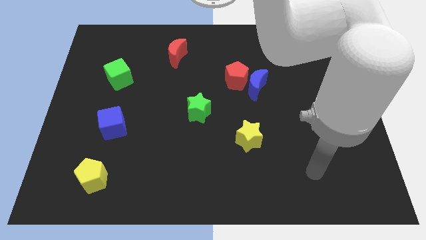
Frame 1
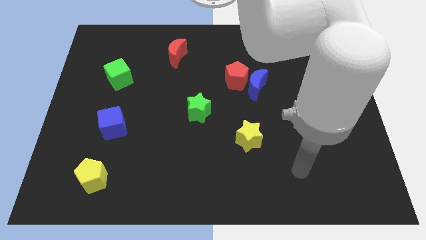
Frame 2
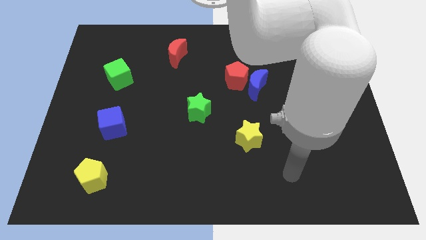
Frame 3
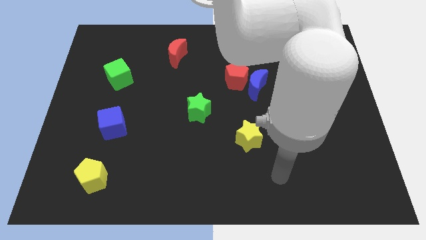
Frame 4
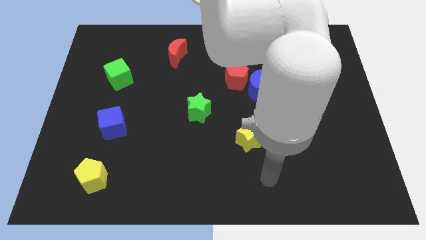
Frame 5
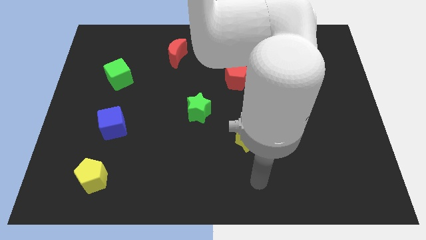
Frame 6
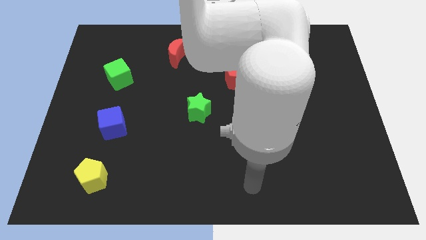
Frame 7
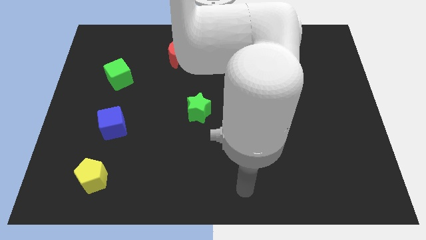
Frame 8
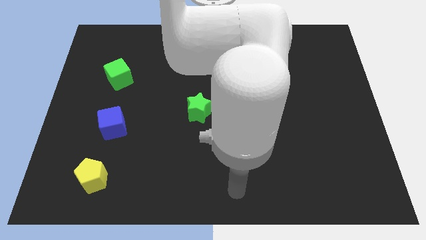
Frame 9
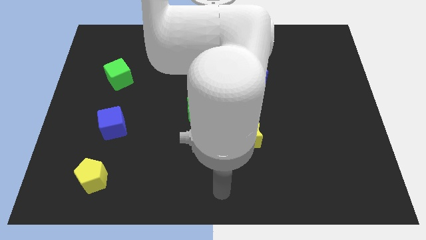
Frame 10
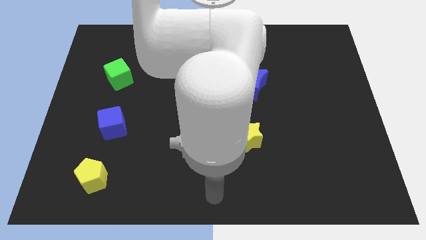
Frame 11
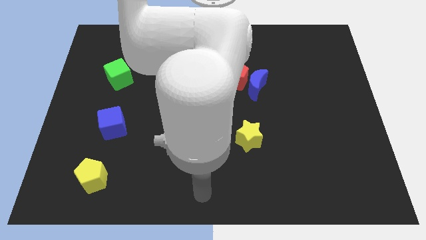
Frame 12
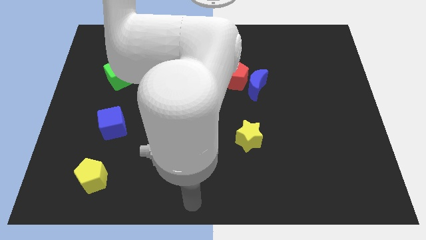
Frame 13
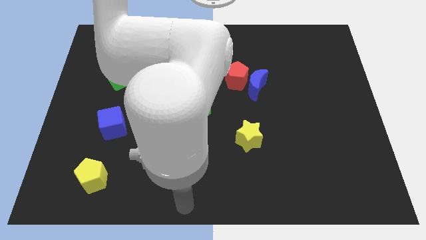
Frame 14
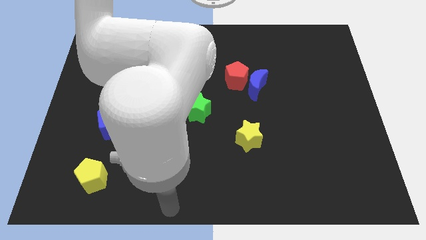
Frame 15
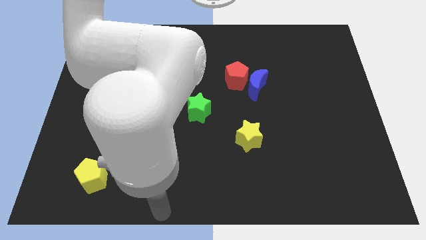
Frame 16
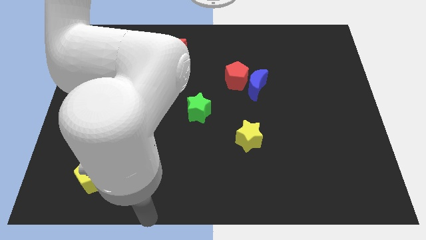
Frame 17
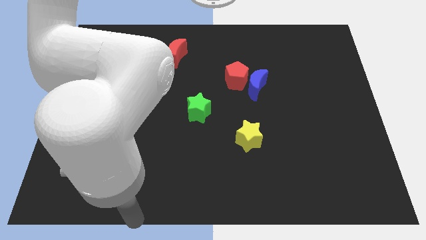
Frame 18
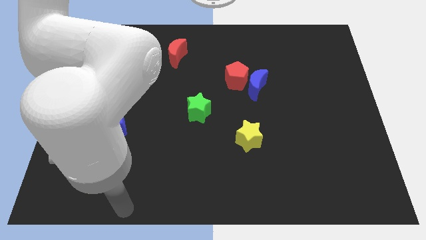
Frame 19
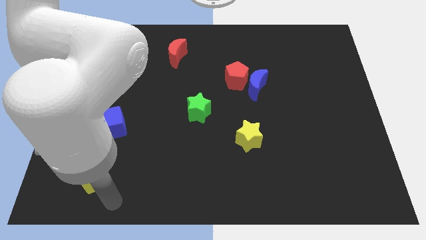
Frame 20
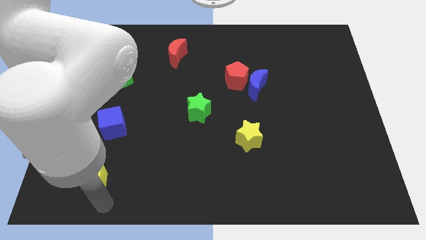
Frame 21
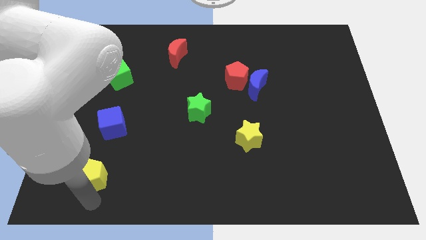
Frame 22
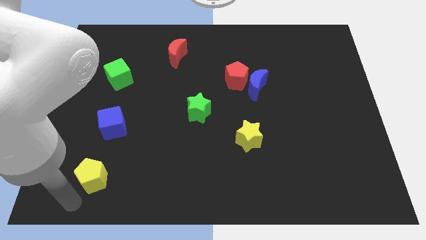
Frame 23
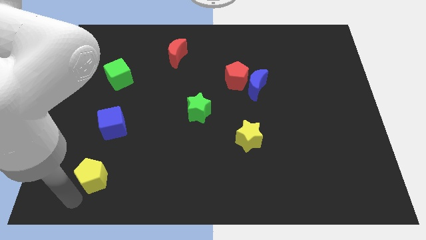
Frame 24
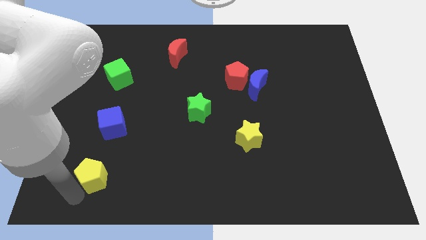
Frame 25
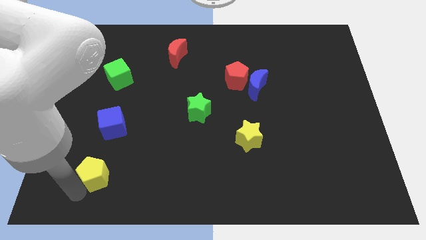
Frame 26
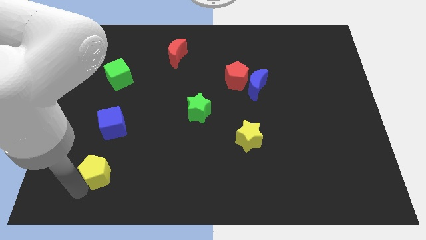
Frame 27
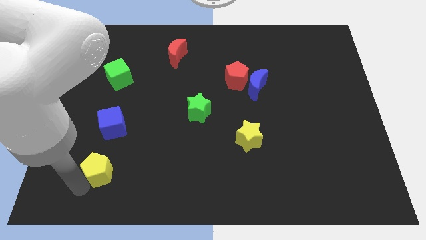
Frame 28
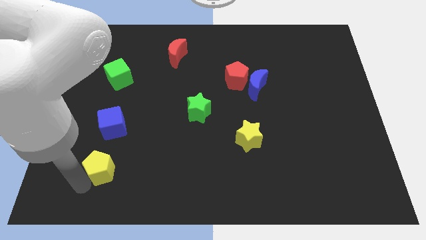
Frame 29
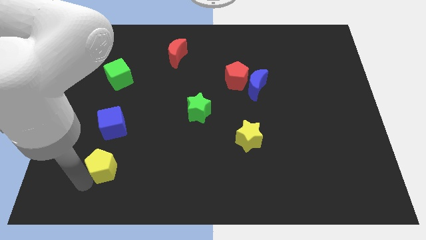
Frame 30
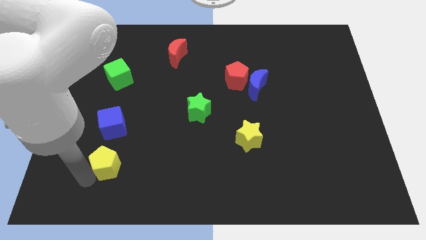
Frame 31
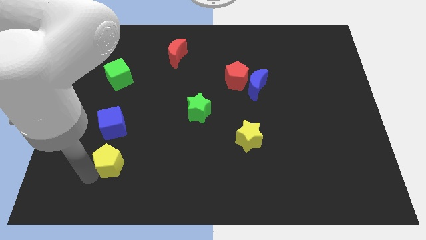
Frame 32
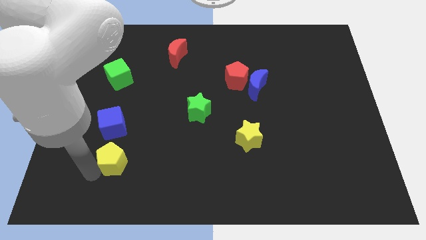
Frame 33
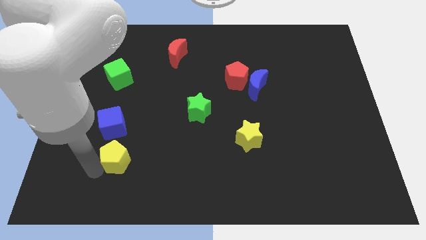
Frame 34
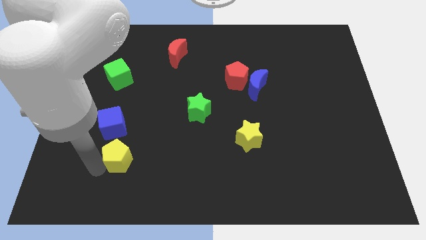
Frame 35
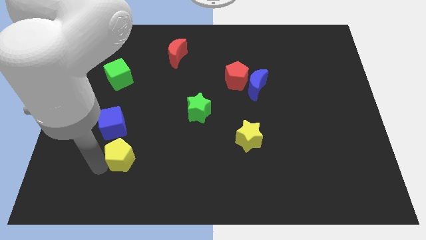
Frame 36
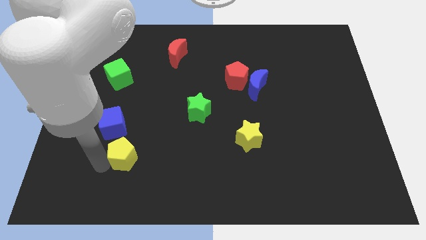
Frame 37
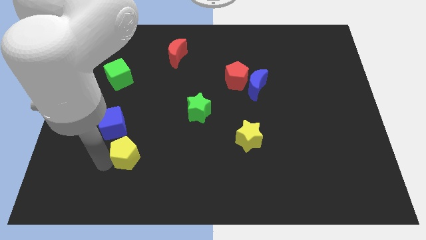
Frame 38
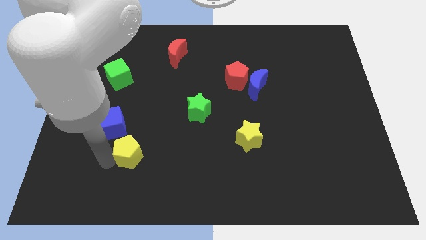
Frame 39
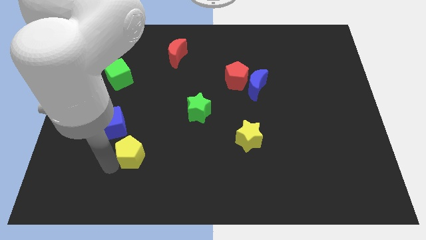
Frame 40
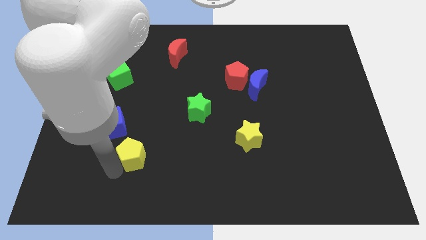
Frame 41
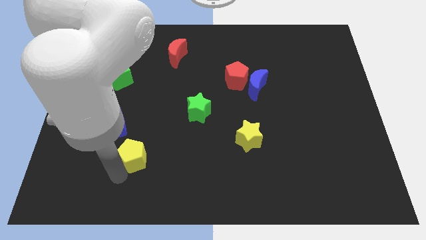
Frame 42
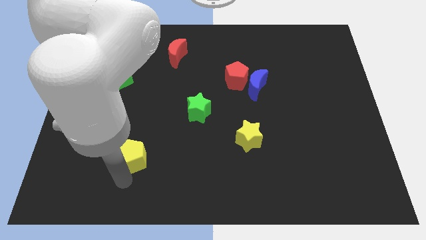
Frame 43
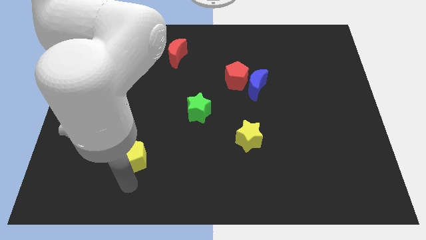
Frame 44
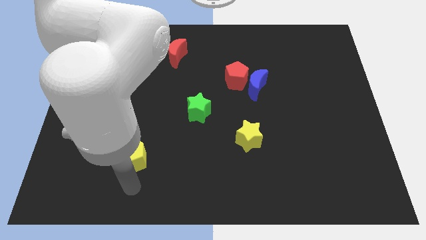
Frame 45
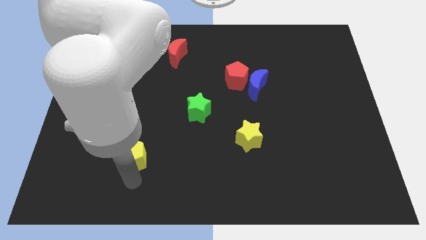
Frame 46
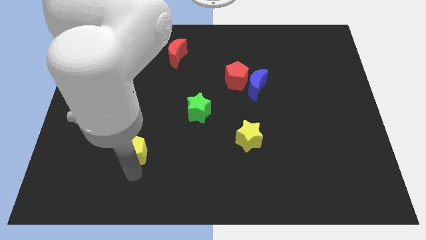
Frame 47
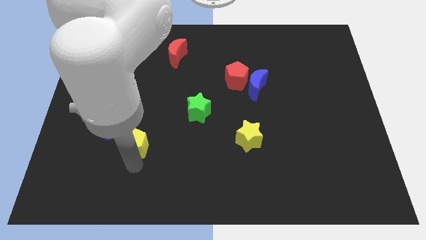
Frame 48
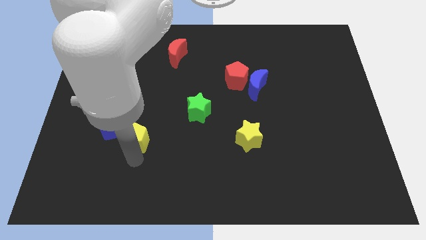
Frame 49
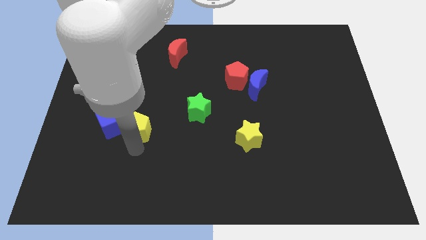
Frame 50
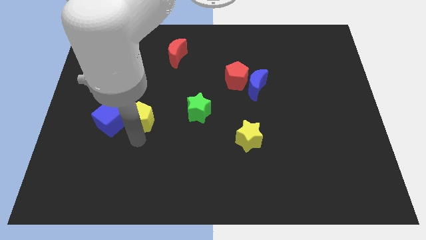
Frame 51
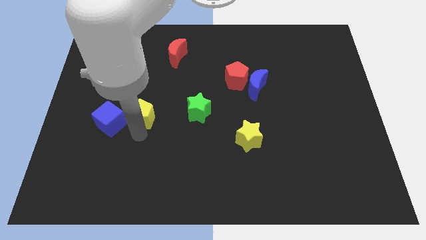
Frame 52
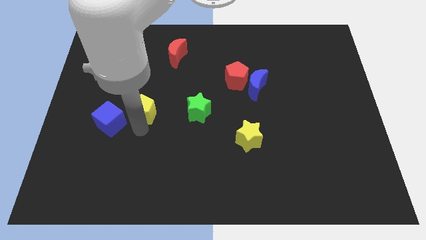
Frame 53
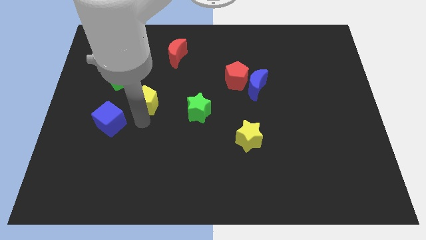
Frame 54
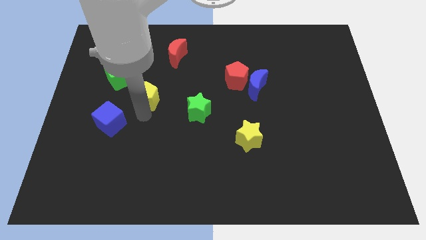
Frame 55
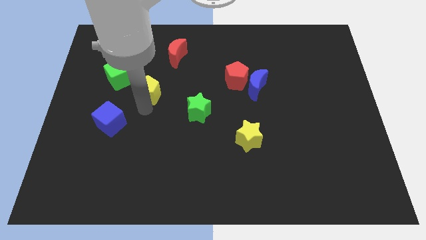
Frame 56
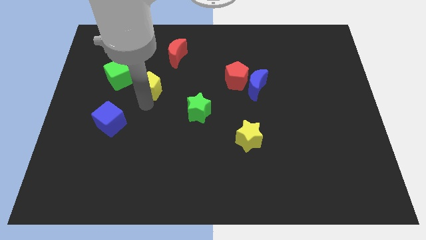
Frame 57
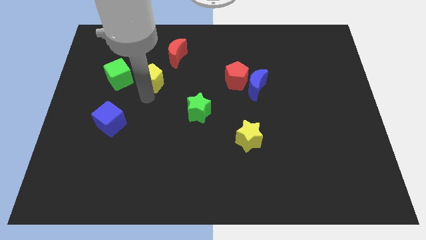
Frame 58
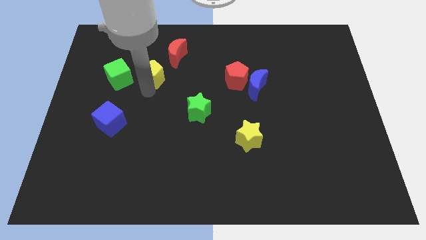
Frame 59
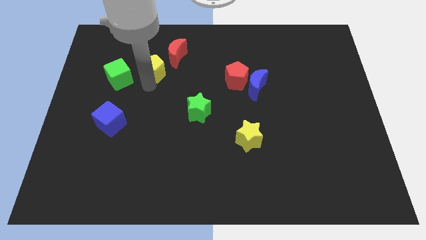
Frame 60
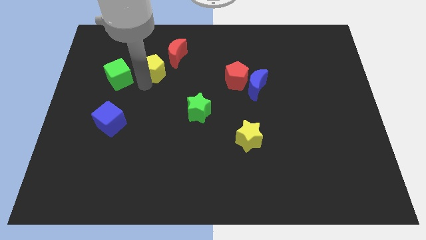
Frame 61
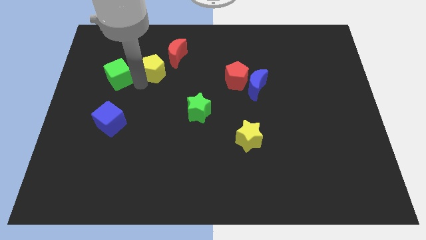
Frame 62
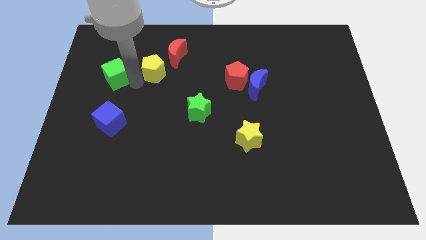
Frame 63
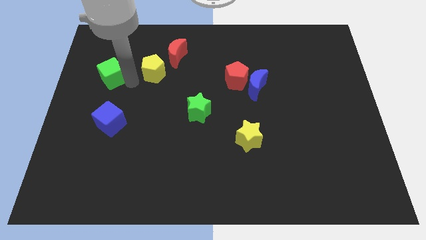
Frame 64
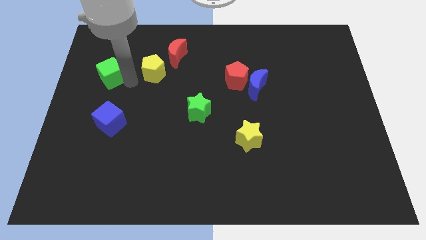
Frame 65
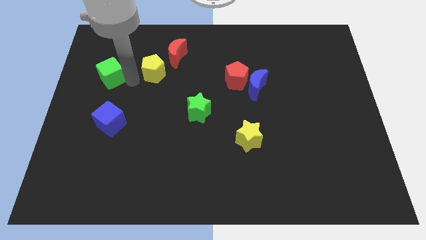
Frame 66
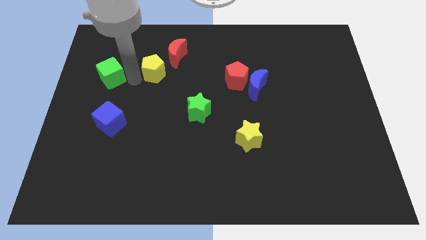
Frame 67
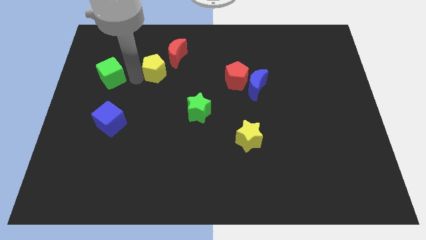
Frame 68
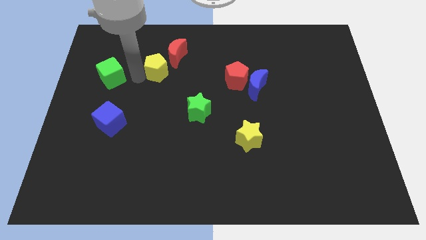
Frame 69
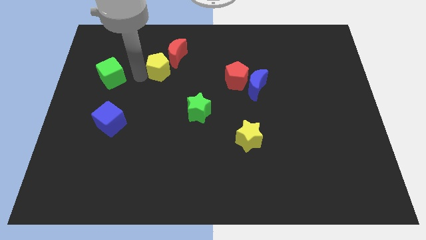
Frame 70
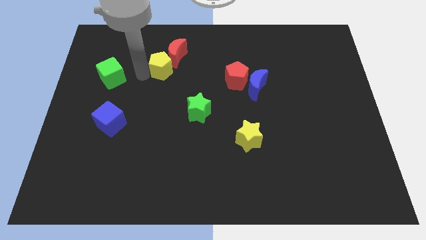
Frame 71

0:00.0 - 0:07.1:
put the yellow pentagon close to the red moon

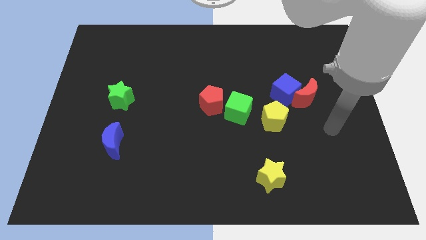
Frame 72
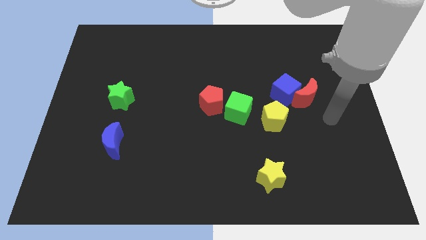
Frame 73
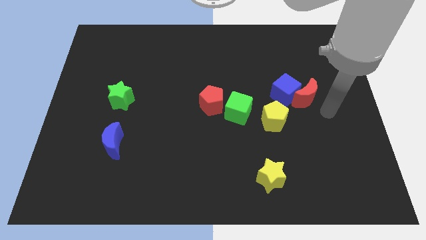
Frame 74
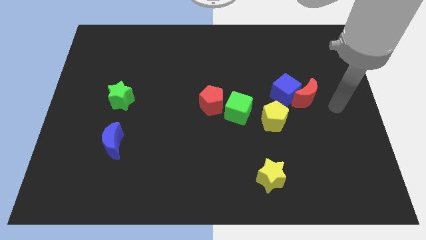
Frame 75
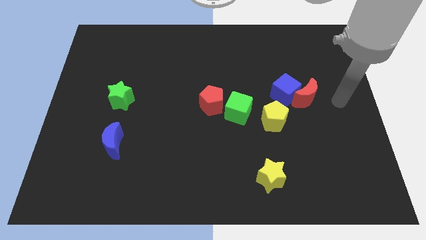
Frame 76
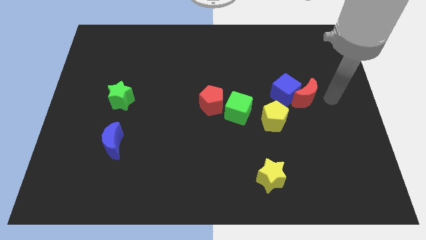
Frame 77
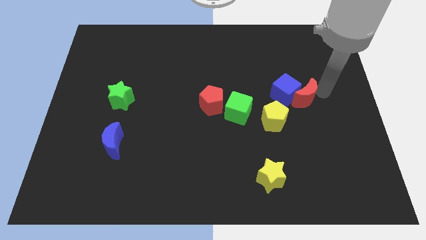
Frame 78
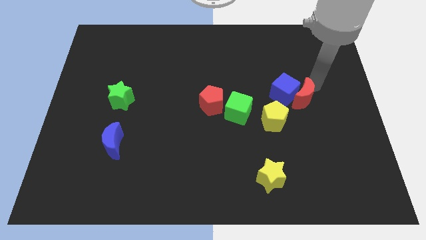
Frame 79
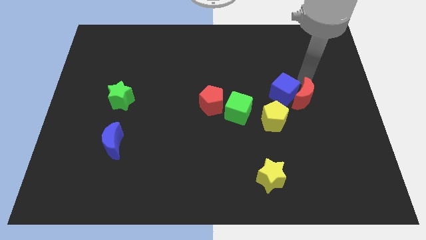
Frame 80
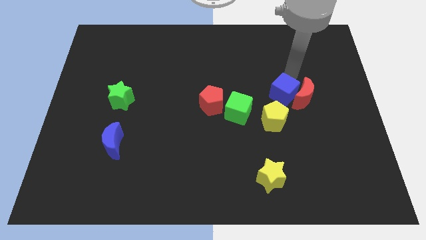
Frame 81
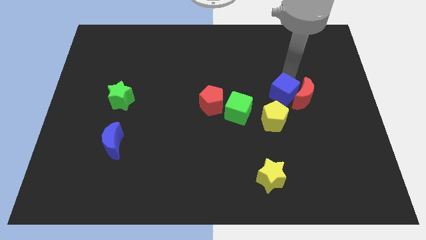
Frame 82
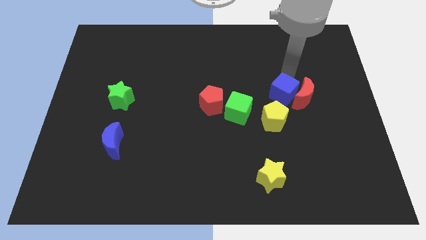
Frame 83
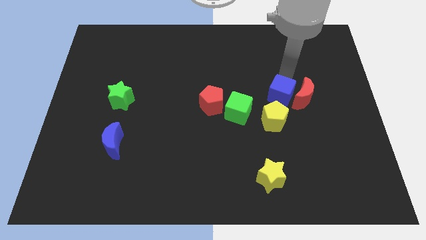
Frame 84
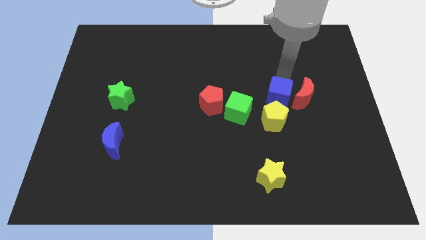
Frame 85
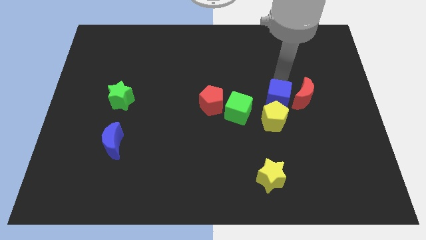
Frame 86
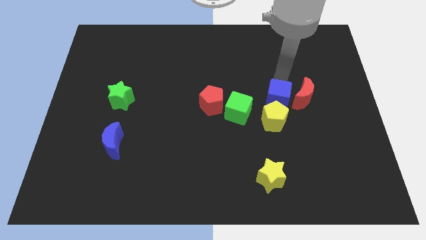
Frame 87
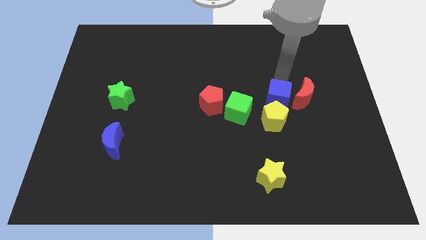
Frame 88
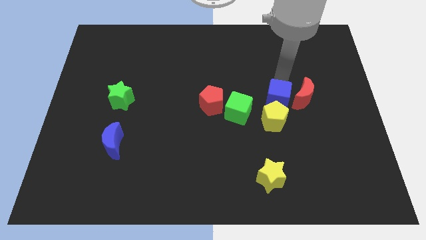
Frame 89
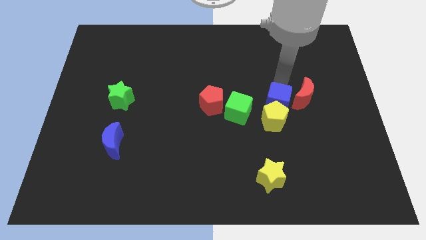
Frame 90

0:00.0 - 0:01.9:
push the blue cube towards the yellow pentagon
